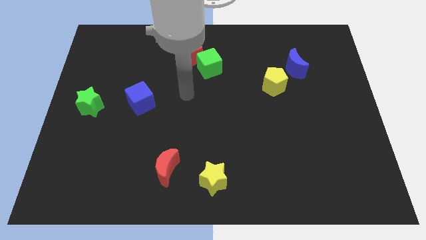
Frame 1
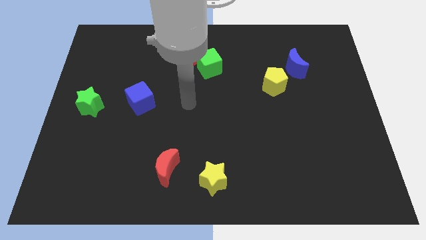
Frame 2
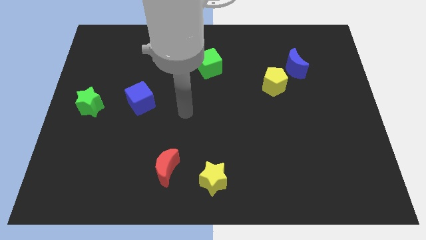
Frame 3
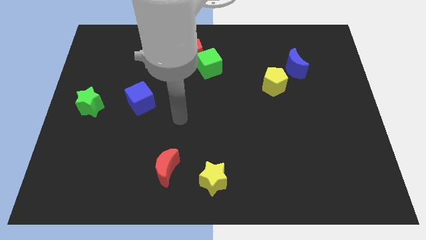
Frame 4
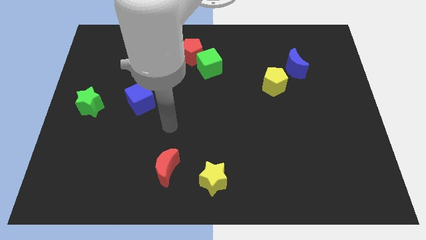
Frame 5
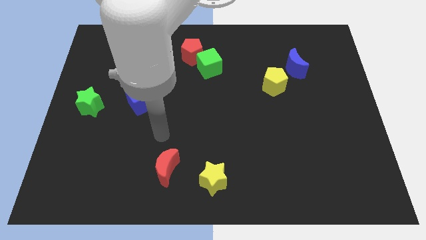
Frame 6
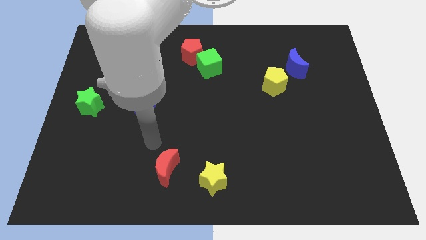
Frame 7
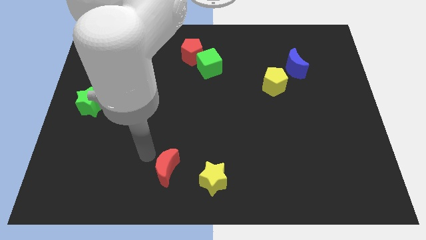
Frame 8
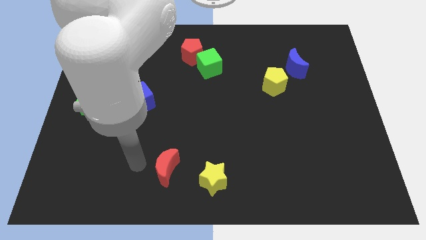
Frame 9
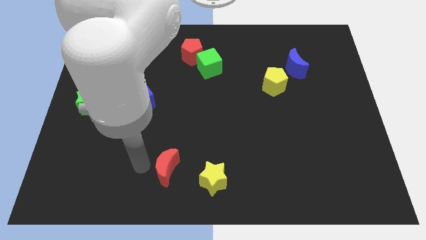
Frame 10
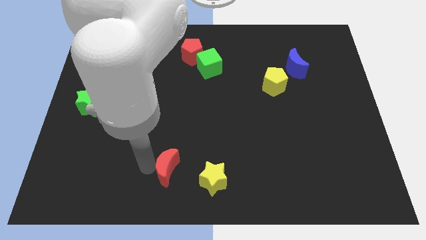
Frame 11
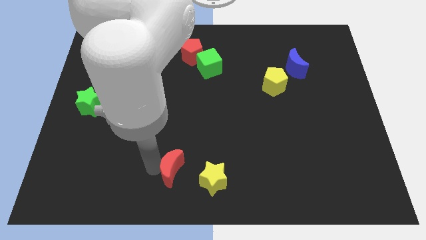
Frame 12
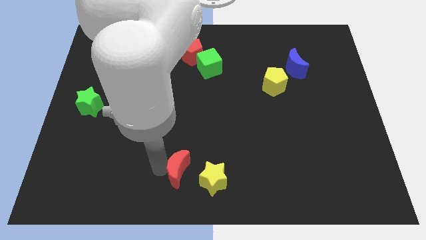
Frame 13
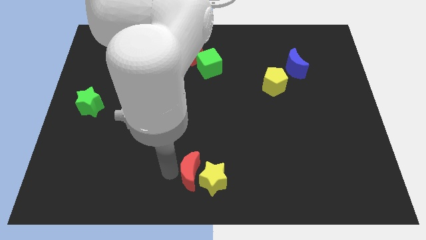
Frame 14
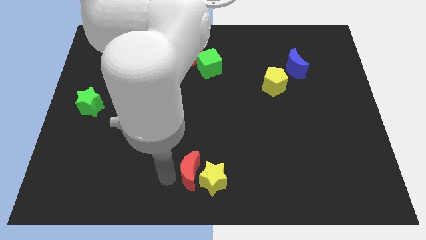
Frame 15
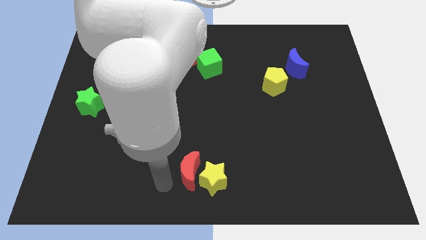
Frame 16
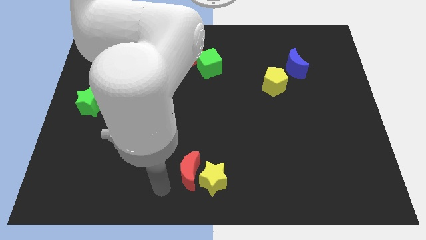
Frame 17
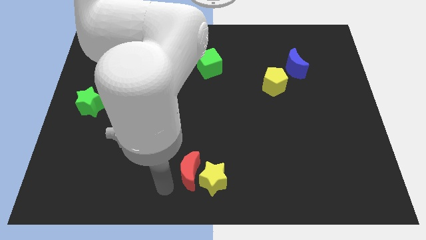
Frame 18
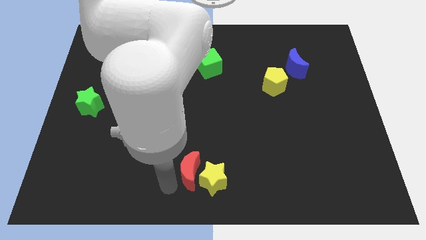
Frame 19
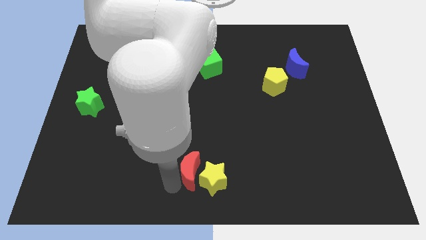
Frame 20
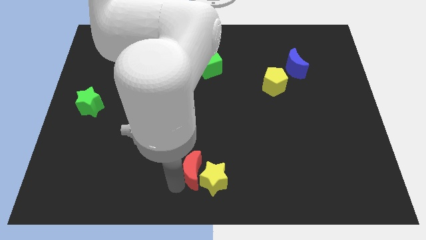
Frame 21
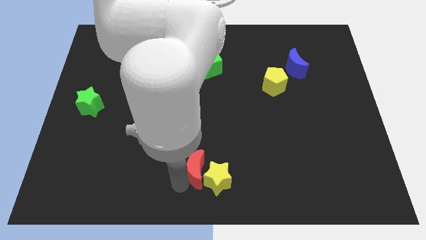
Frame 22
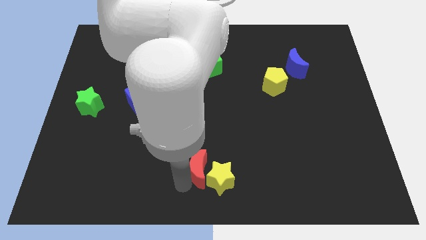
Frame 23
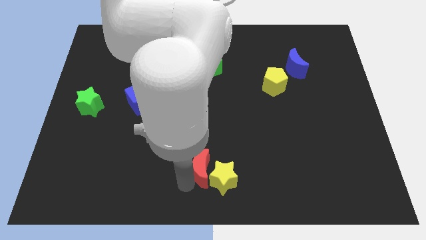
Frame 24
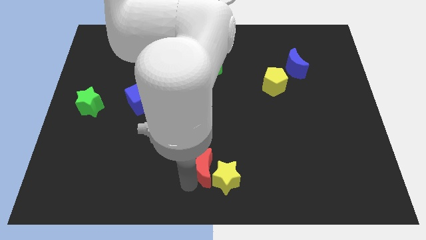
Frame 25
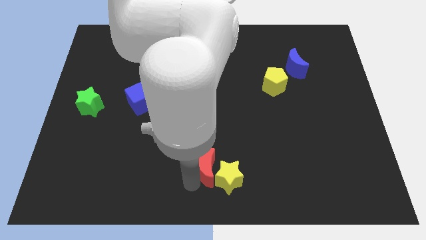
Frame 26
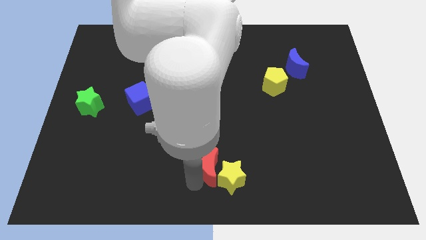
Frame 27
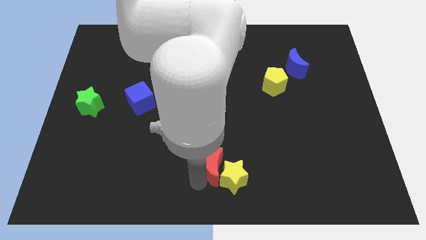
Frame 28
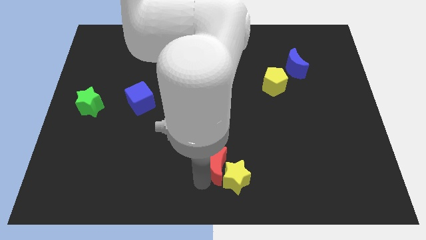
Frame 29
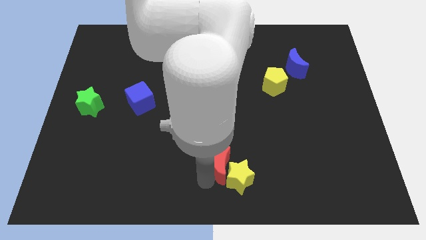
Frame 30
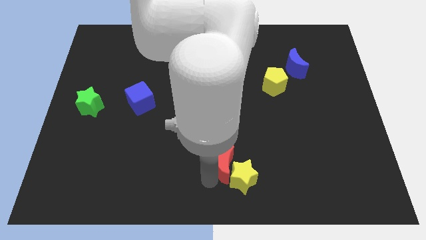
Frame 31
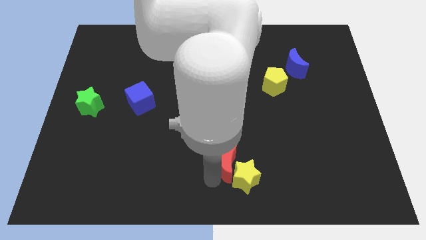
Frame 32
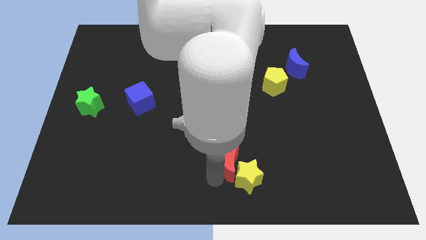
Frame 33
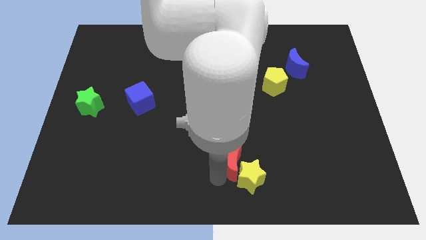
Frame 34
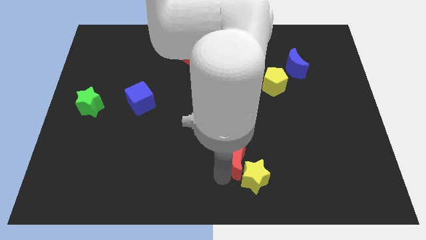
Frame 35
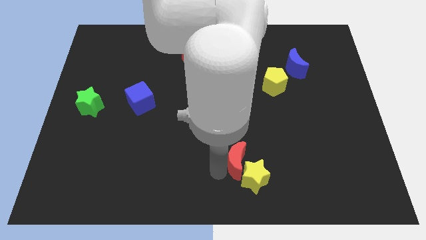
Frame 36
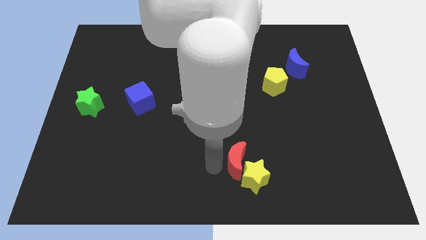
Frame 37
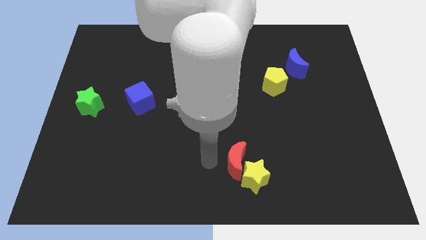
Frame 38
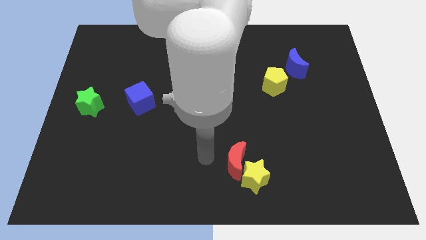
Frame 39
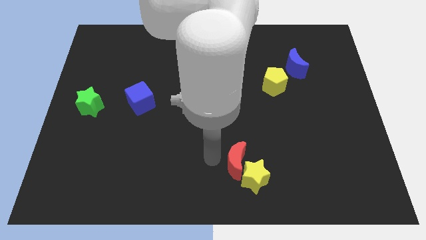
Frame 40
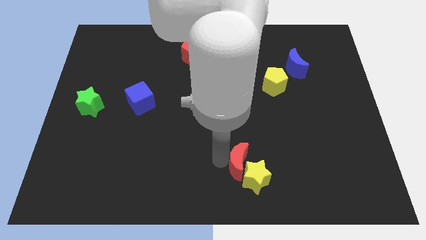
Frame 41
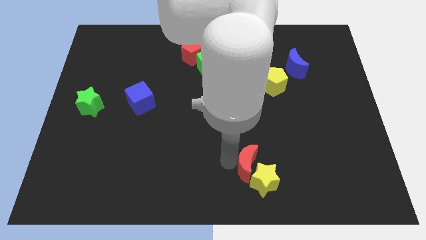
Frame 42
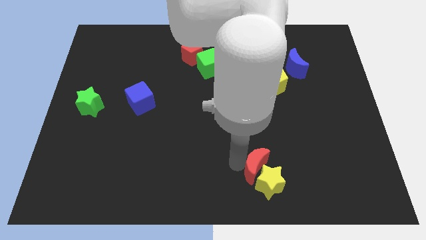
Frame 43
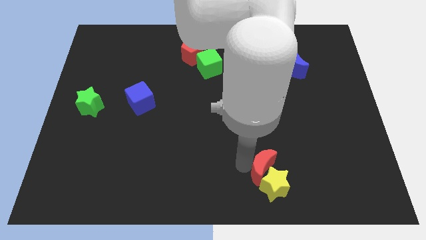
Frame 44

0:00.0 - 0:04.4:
move the red moon right

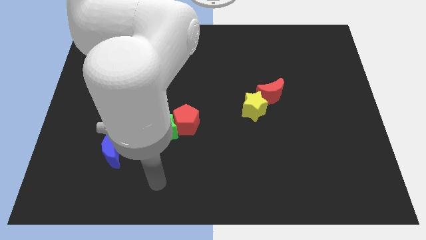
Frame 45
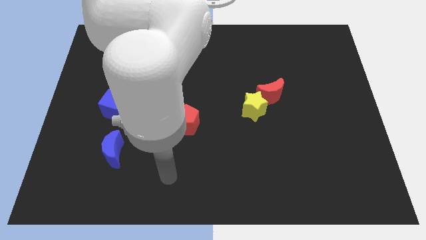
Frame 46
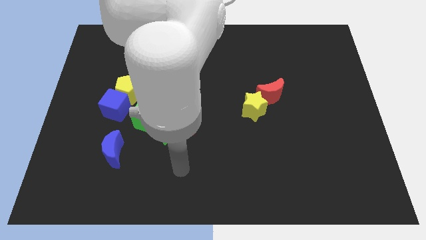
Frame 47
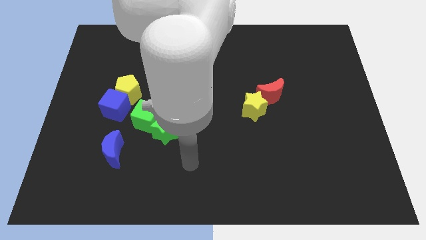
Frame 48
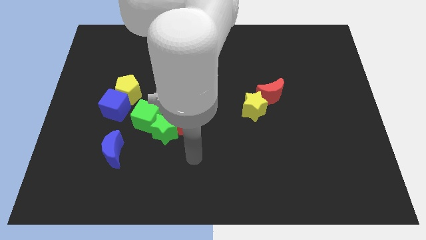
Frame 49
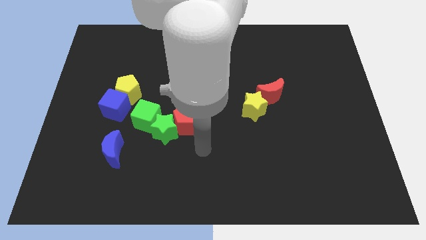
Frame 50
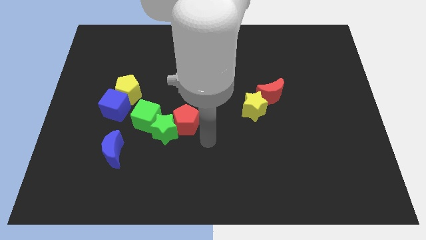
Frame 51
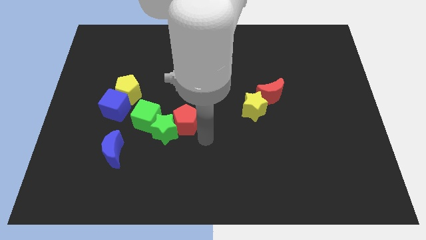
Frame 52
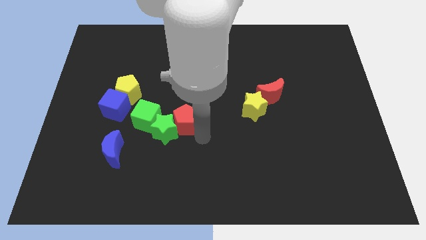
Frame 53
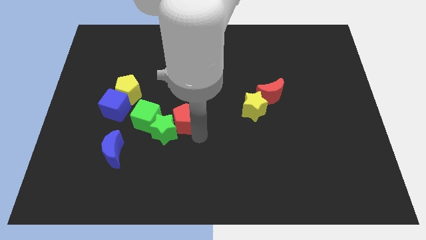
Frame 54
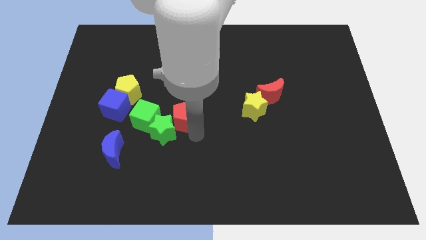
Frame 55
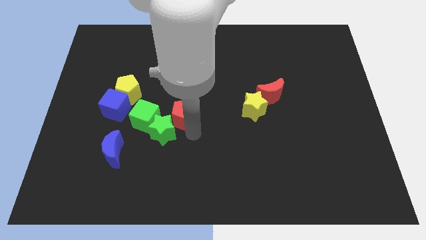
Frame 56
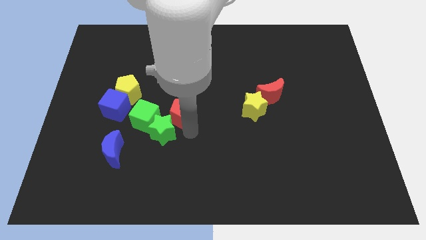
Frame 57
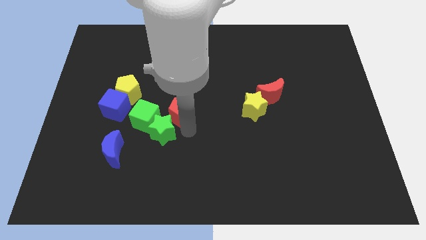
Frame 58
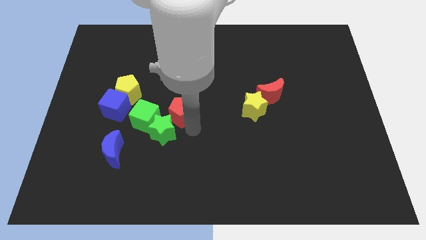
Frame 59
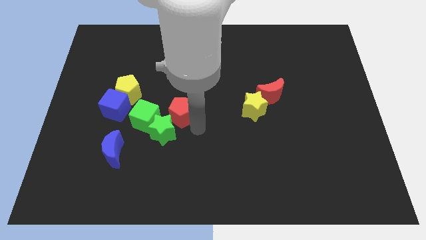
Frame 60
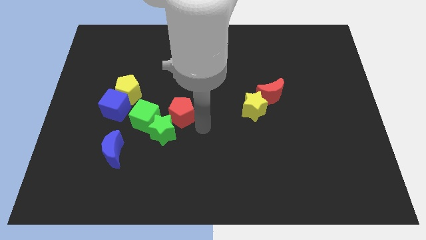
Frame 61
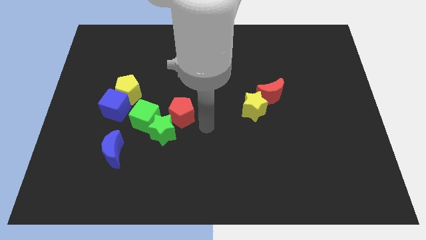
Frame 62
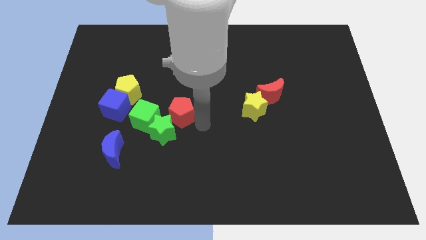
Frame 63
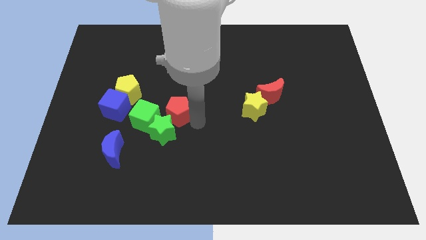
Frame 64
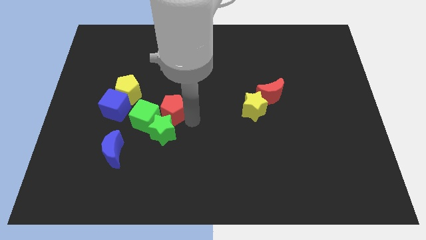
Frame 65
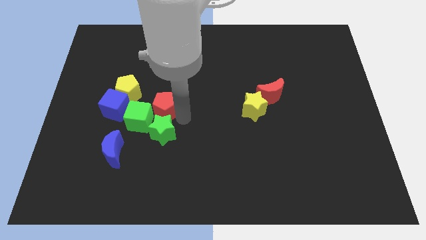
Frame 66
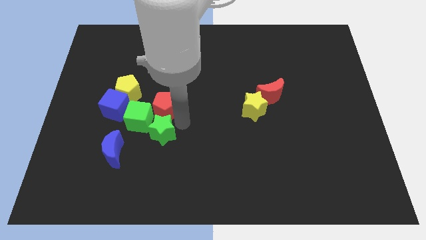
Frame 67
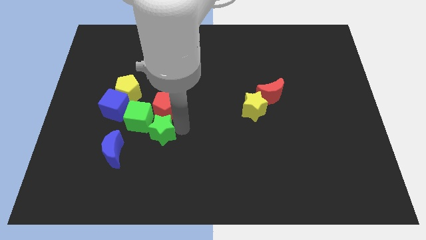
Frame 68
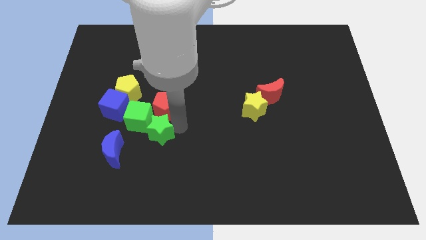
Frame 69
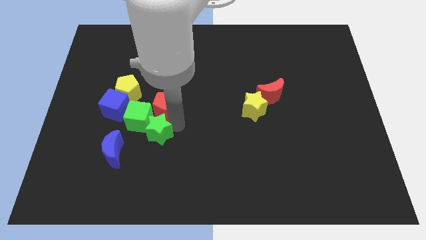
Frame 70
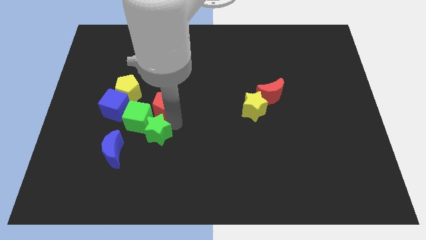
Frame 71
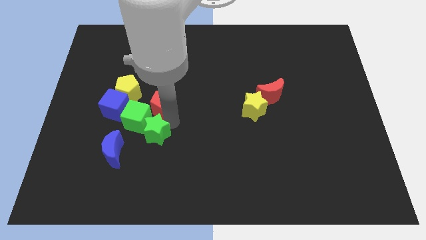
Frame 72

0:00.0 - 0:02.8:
move the red pentagon somewhat upwards and left

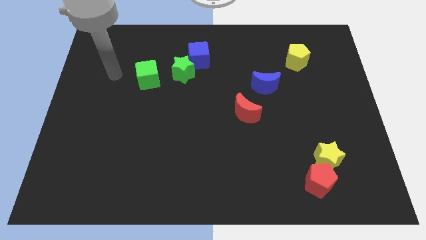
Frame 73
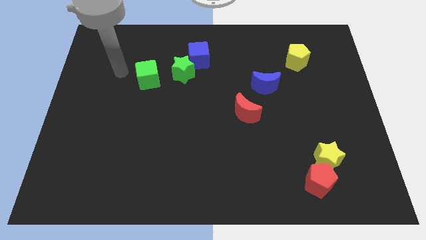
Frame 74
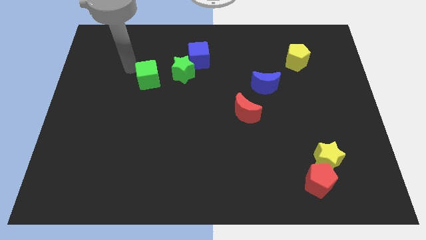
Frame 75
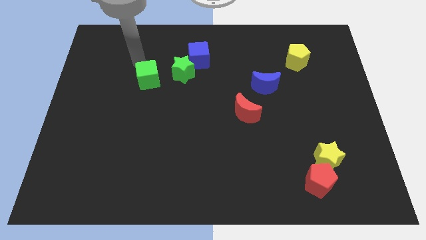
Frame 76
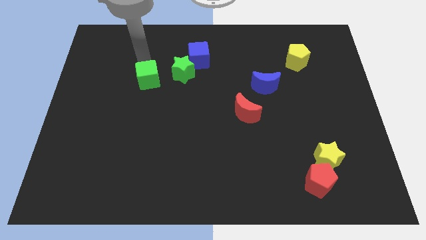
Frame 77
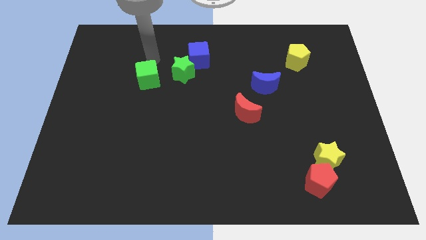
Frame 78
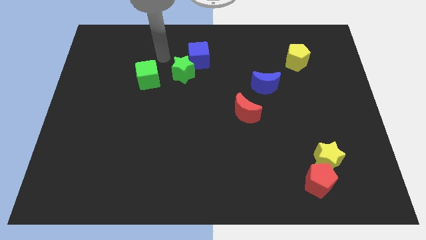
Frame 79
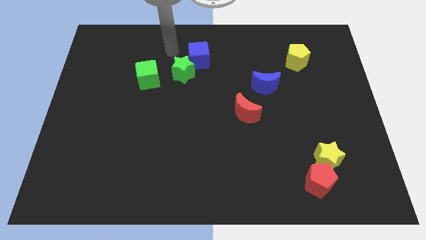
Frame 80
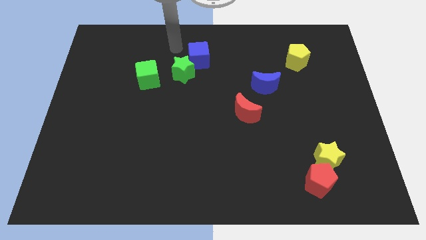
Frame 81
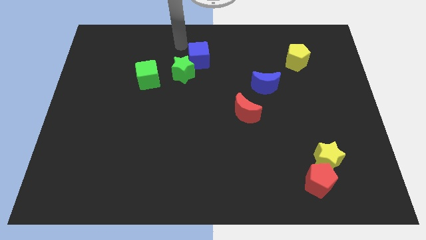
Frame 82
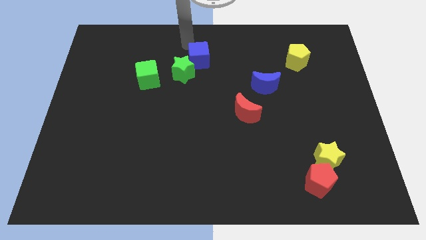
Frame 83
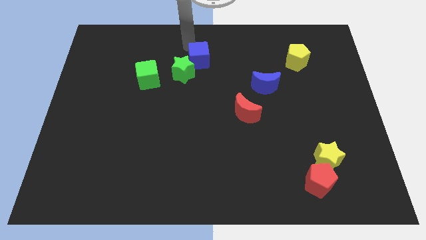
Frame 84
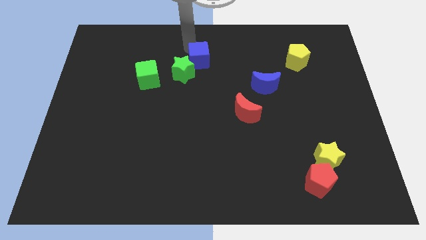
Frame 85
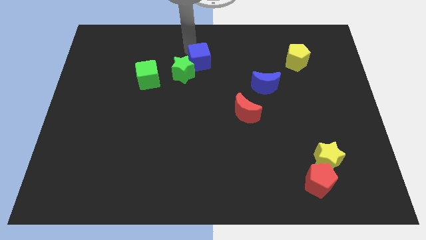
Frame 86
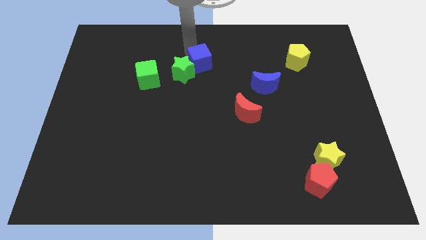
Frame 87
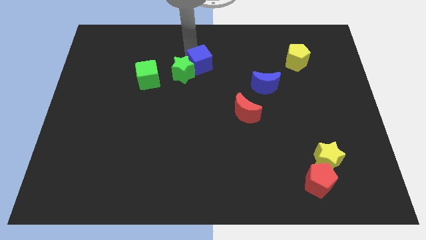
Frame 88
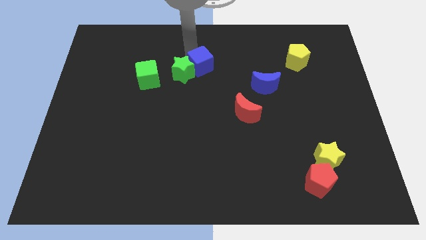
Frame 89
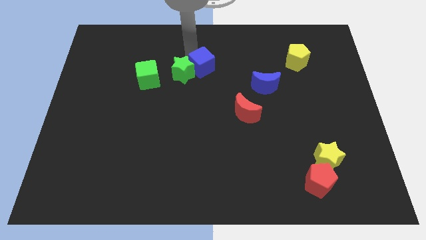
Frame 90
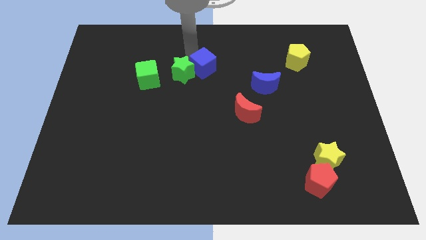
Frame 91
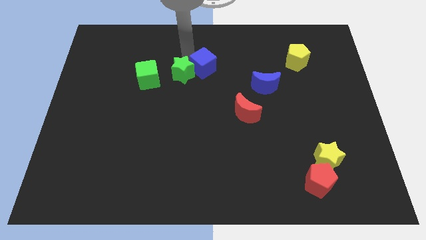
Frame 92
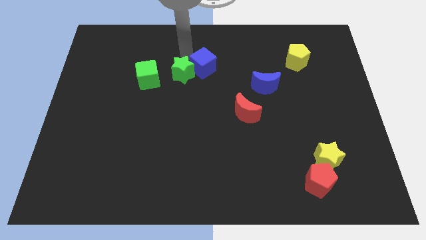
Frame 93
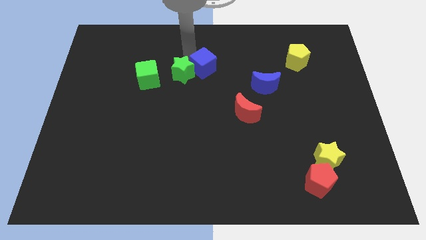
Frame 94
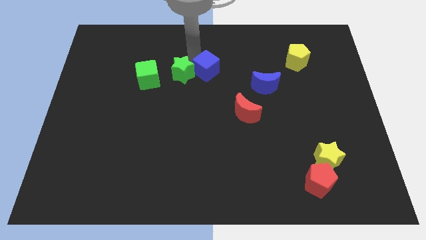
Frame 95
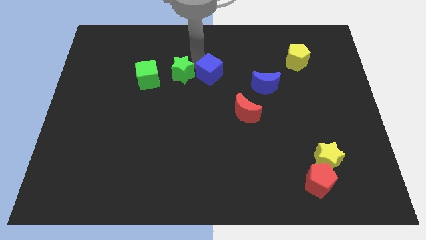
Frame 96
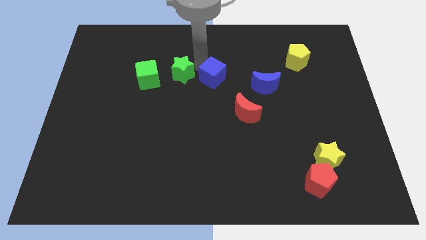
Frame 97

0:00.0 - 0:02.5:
slightly move the blue cube down and right
